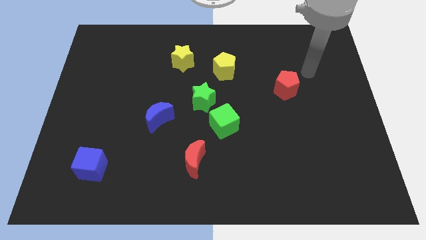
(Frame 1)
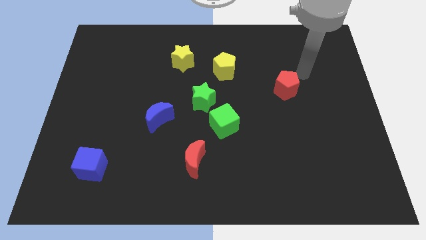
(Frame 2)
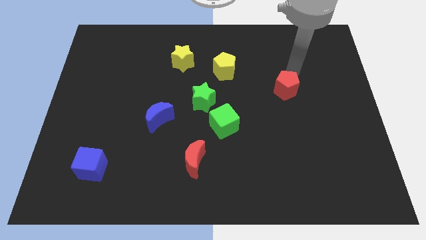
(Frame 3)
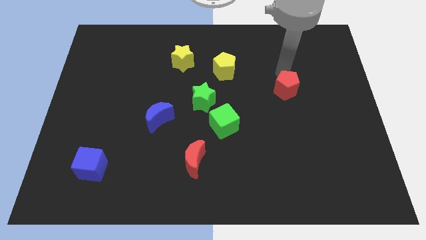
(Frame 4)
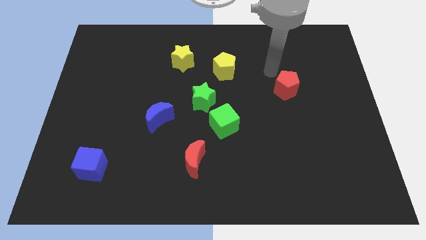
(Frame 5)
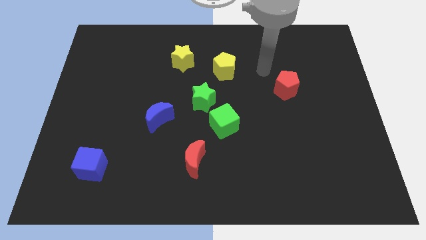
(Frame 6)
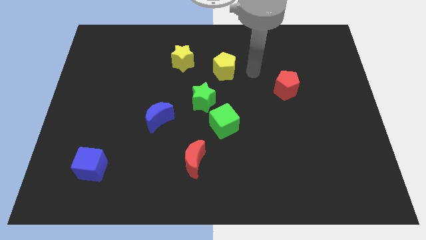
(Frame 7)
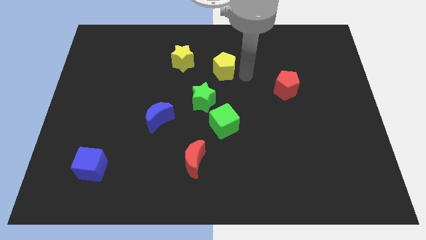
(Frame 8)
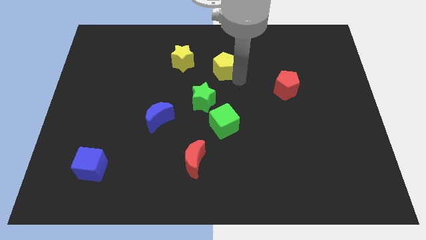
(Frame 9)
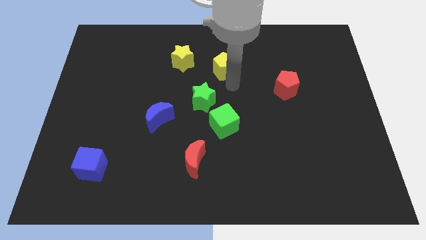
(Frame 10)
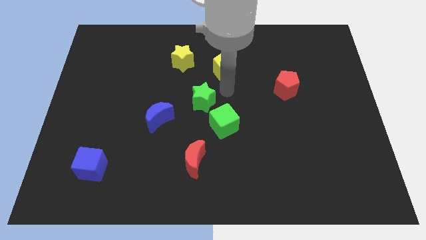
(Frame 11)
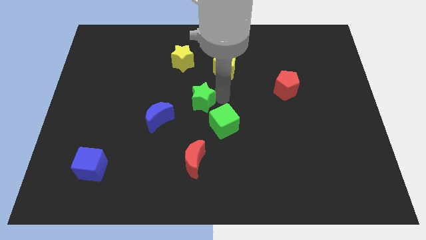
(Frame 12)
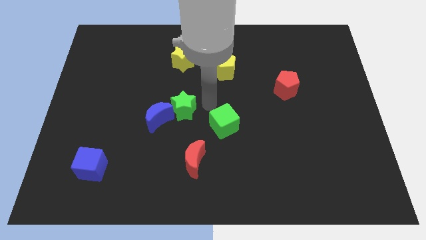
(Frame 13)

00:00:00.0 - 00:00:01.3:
separate the green cube from the green star

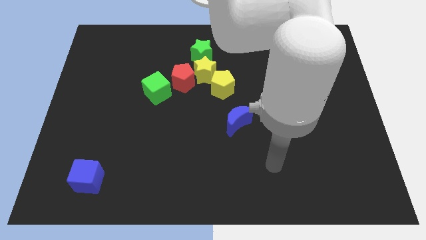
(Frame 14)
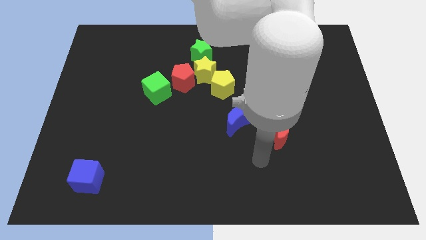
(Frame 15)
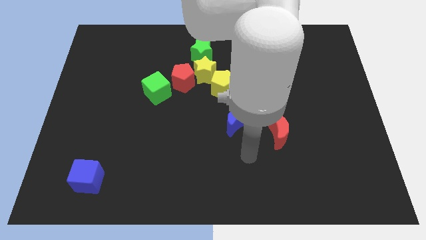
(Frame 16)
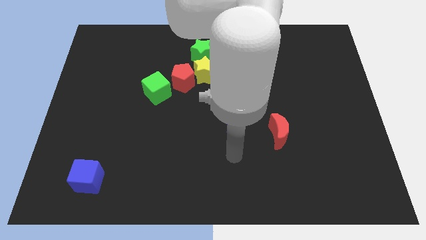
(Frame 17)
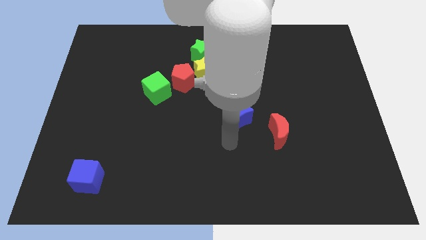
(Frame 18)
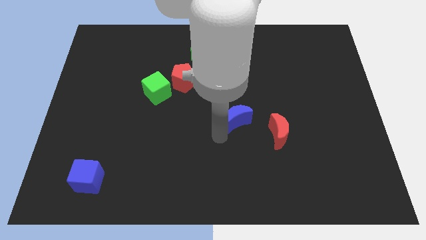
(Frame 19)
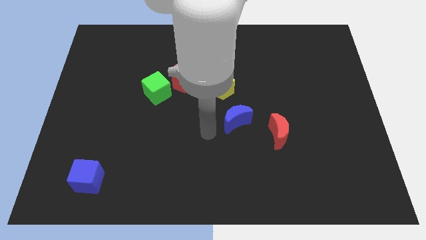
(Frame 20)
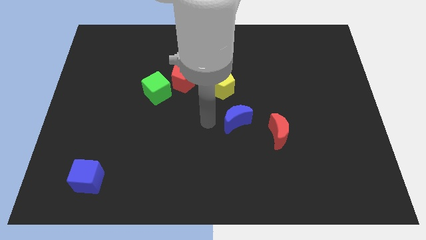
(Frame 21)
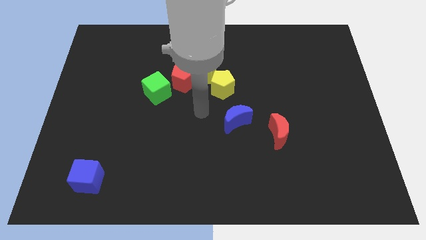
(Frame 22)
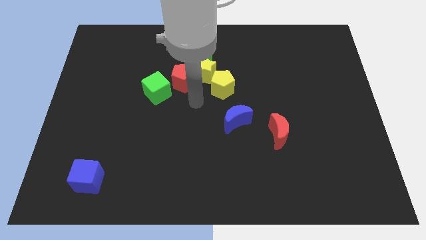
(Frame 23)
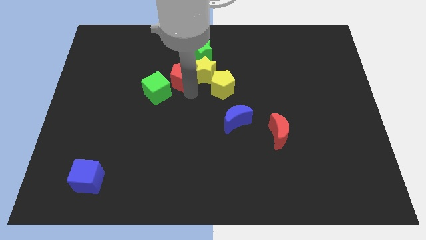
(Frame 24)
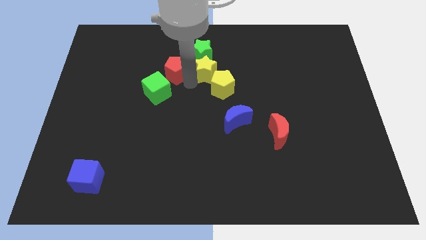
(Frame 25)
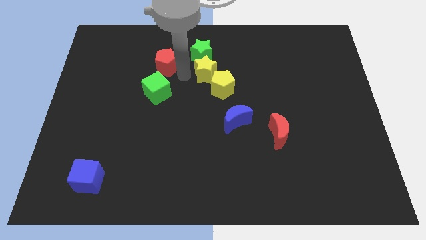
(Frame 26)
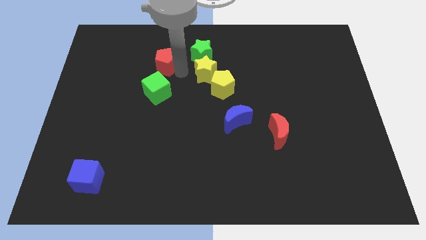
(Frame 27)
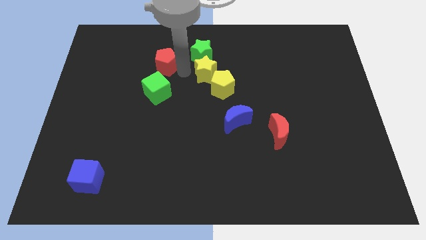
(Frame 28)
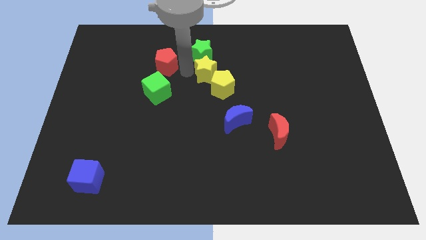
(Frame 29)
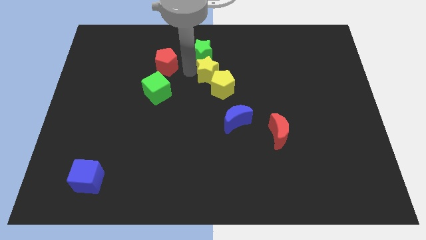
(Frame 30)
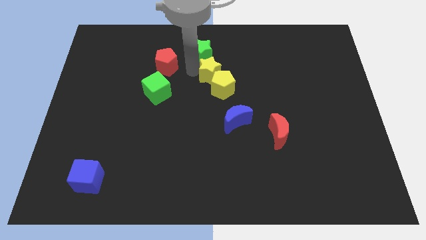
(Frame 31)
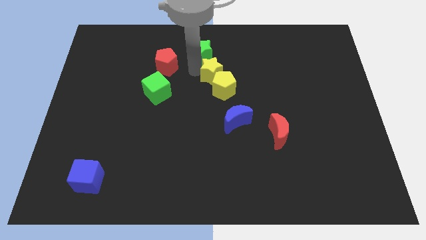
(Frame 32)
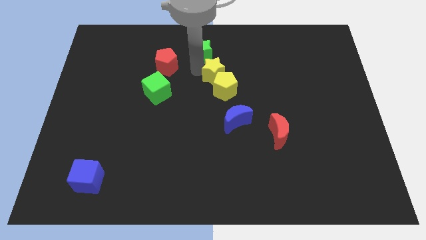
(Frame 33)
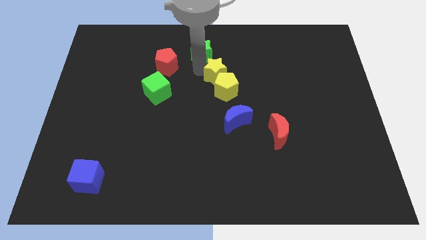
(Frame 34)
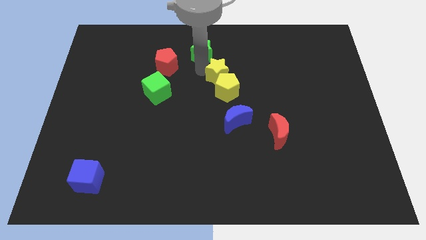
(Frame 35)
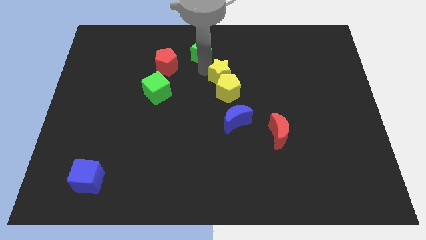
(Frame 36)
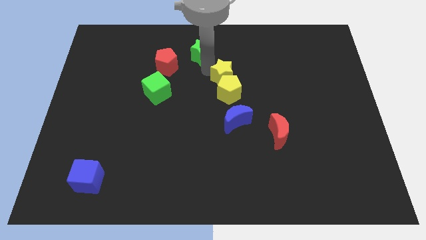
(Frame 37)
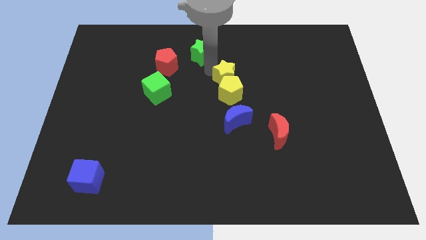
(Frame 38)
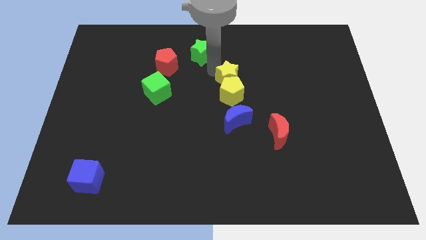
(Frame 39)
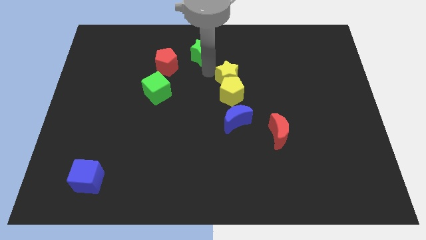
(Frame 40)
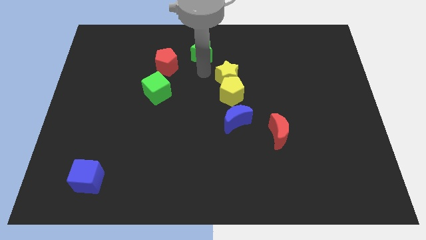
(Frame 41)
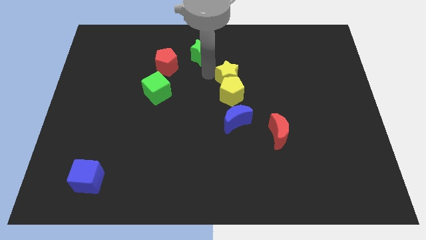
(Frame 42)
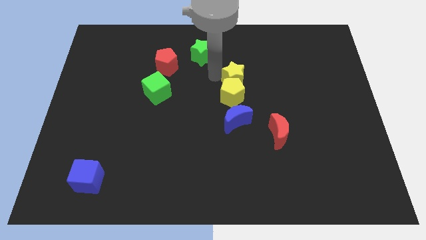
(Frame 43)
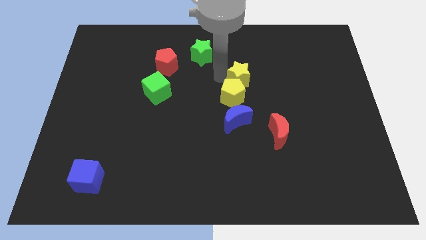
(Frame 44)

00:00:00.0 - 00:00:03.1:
separate the yellow star from the group of blocks

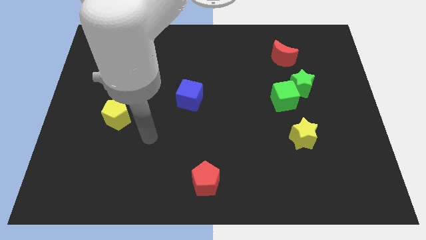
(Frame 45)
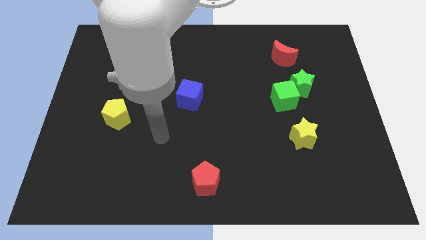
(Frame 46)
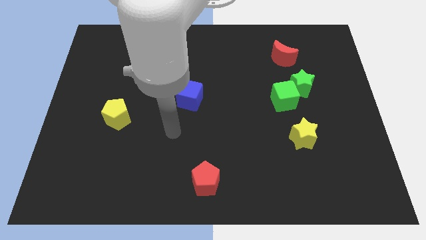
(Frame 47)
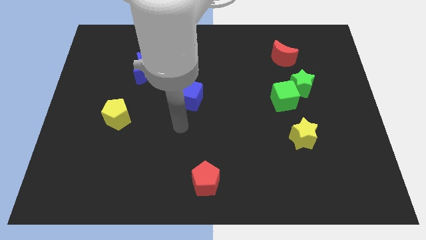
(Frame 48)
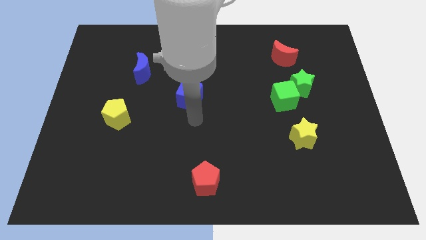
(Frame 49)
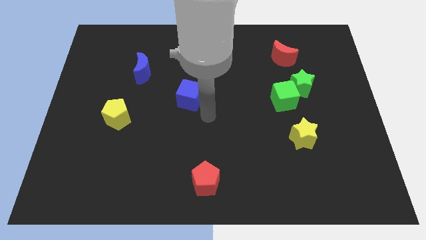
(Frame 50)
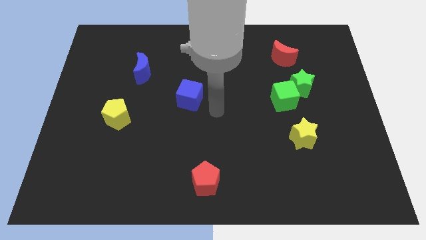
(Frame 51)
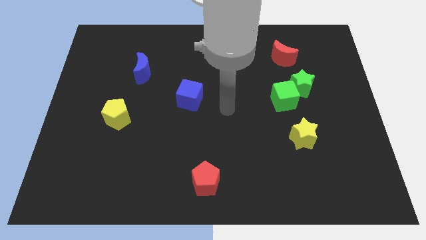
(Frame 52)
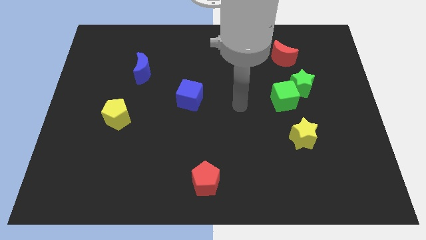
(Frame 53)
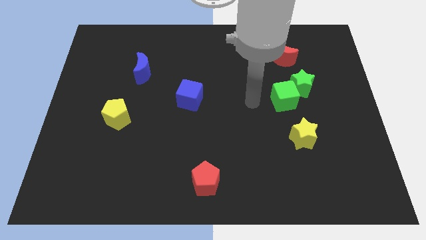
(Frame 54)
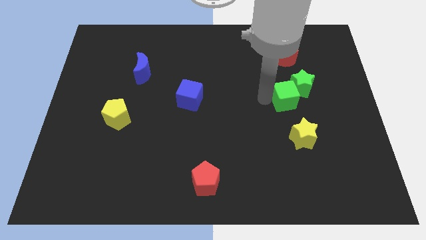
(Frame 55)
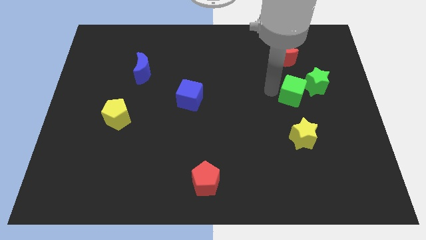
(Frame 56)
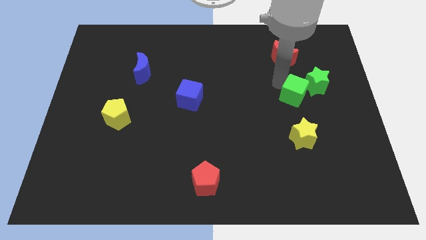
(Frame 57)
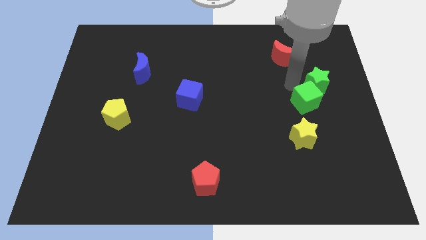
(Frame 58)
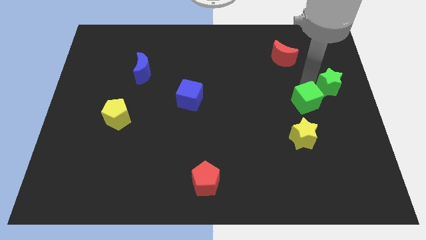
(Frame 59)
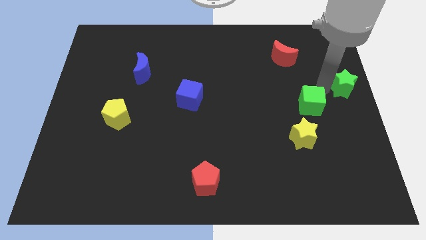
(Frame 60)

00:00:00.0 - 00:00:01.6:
move the green cube away from the green star

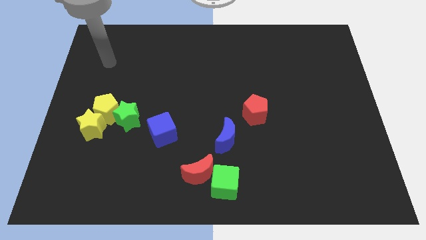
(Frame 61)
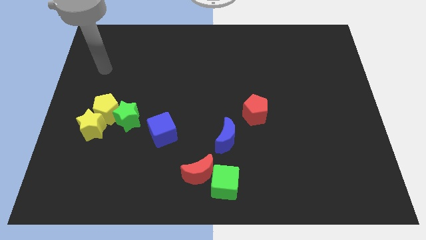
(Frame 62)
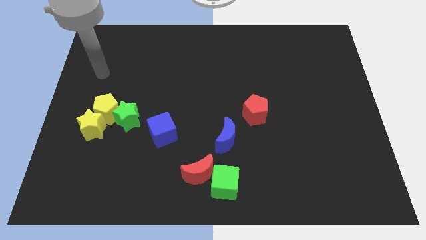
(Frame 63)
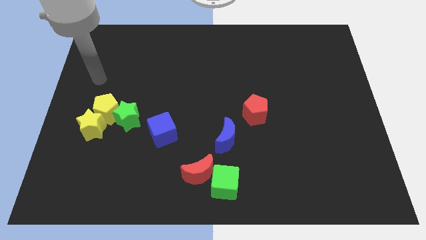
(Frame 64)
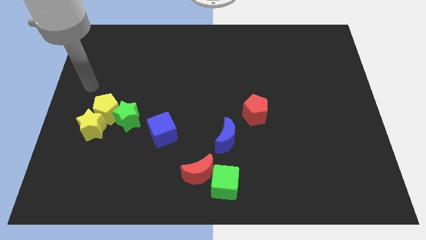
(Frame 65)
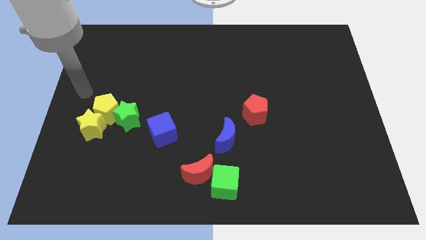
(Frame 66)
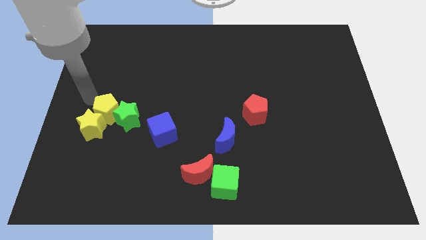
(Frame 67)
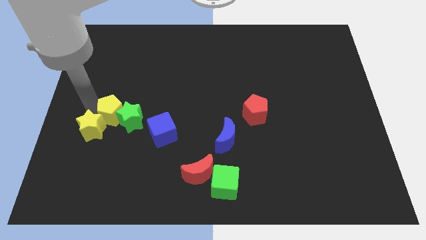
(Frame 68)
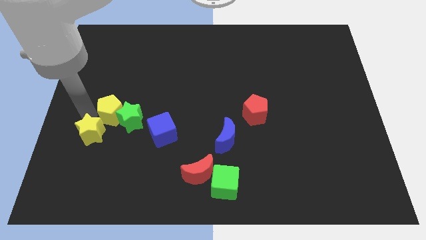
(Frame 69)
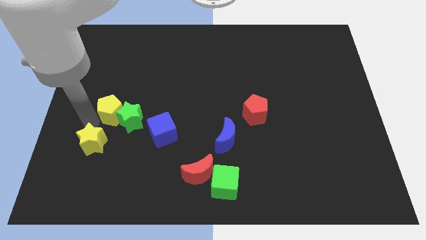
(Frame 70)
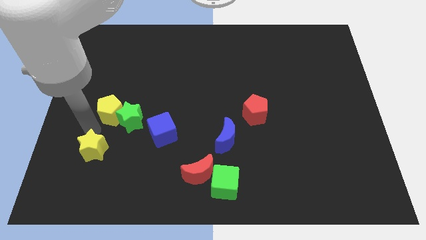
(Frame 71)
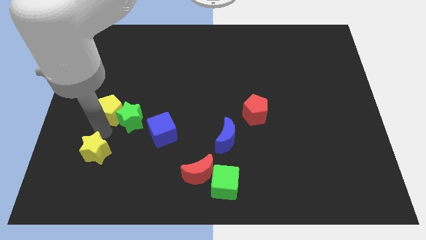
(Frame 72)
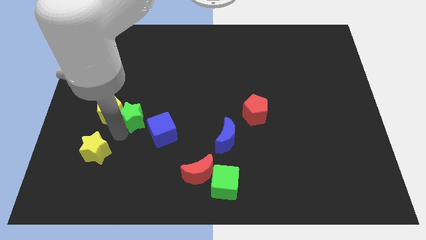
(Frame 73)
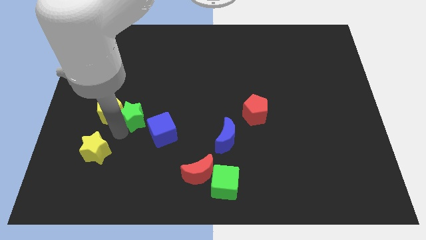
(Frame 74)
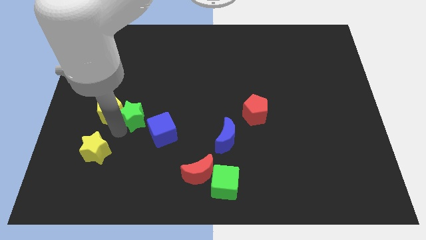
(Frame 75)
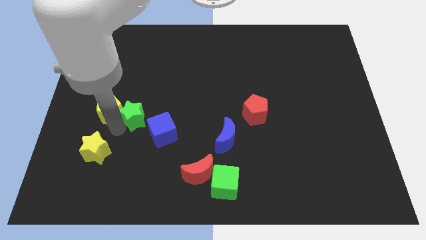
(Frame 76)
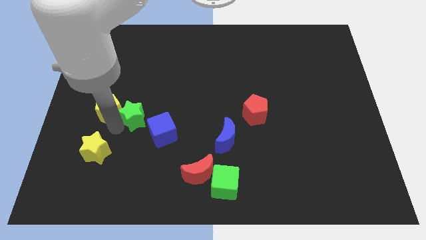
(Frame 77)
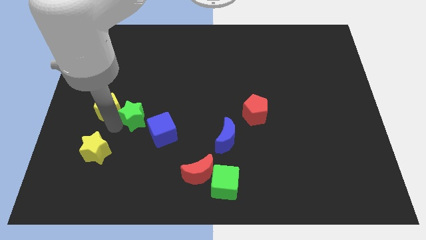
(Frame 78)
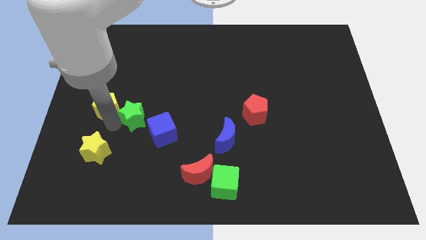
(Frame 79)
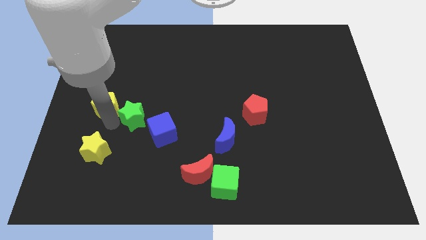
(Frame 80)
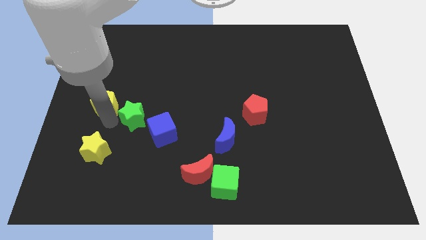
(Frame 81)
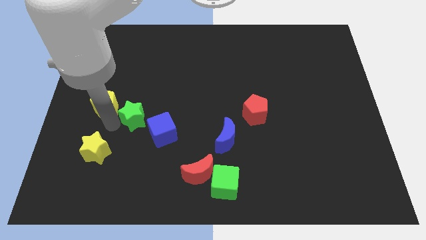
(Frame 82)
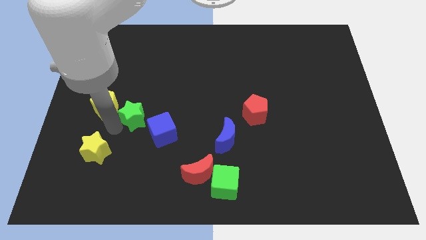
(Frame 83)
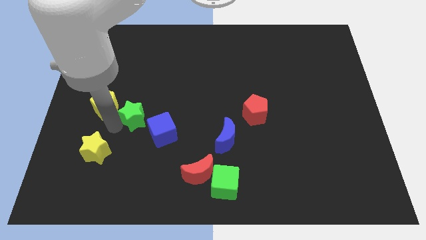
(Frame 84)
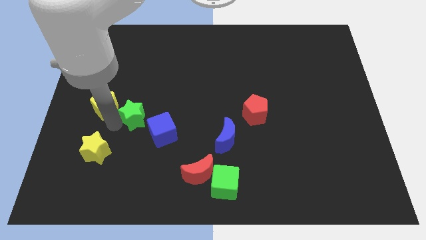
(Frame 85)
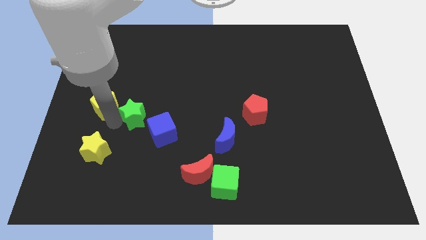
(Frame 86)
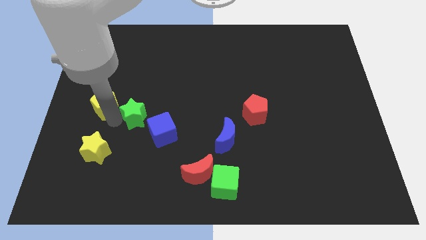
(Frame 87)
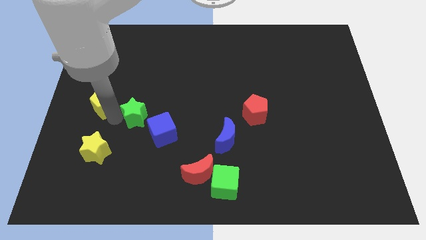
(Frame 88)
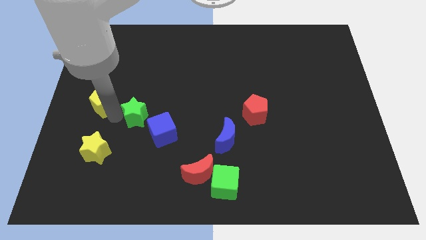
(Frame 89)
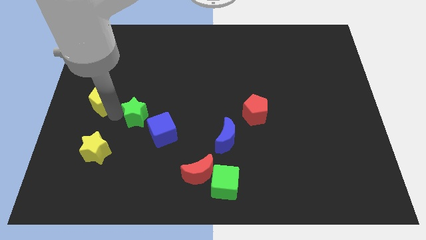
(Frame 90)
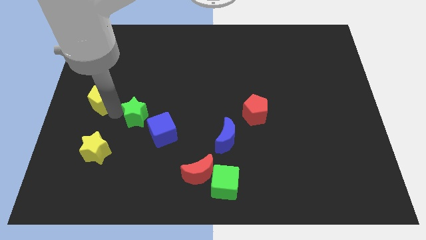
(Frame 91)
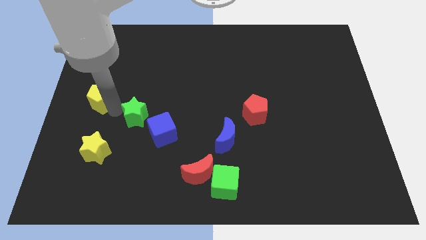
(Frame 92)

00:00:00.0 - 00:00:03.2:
separate the yellow pentagon from the green star and yellow star
